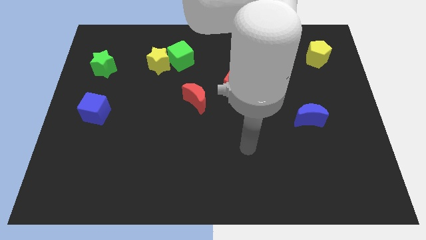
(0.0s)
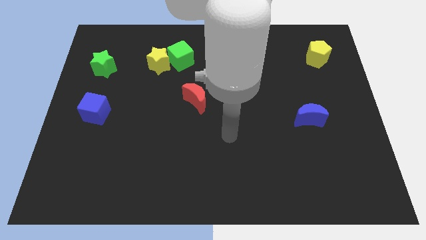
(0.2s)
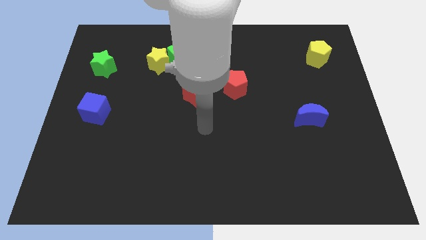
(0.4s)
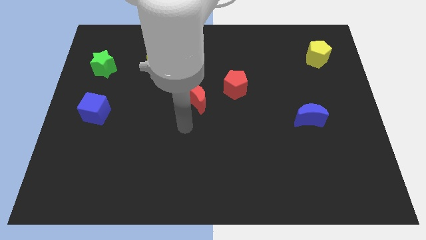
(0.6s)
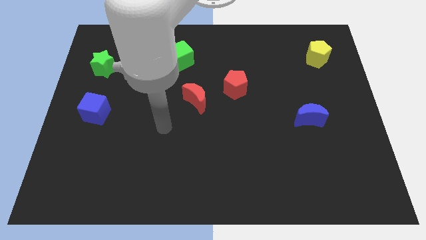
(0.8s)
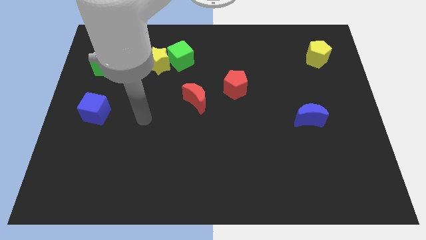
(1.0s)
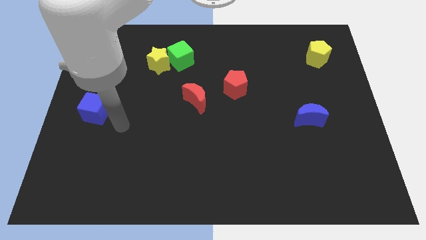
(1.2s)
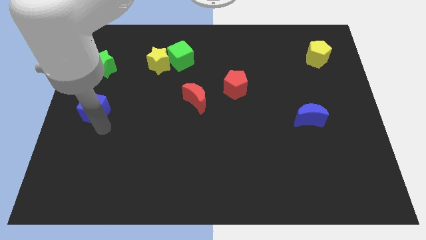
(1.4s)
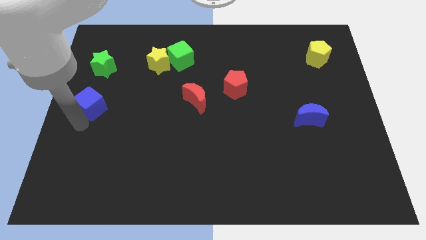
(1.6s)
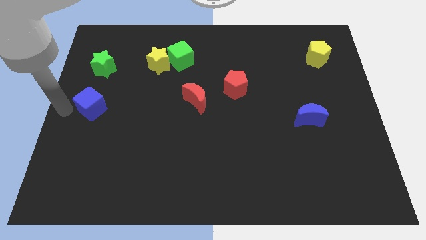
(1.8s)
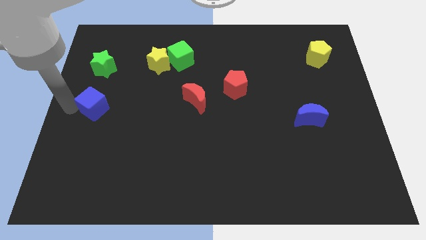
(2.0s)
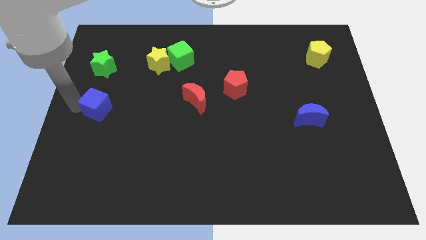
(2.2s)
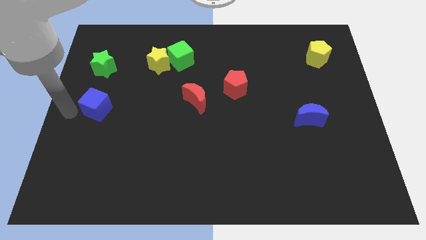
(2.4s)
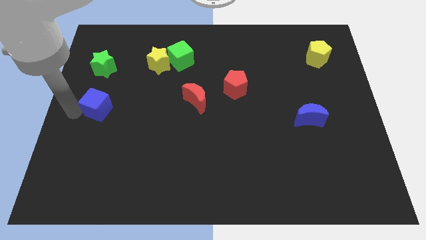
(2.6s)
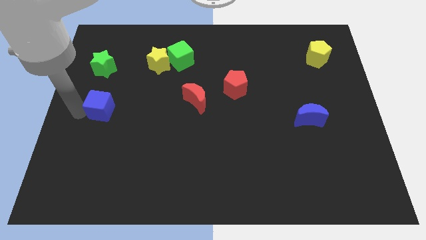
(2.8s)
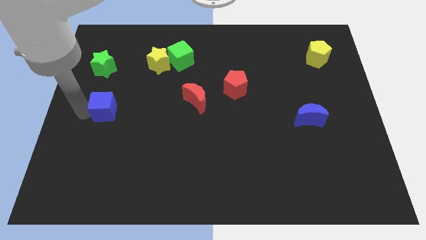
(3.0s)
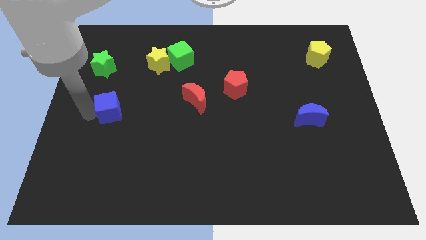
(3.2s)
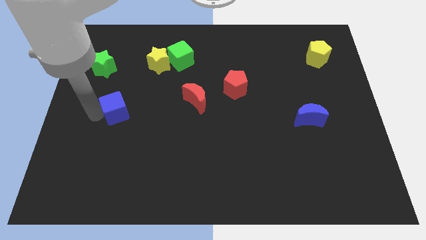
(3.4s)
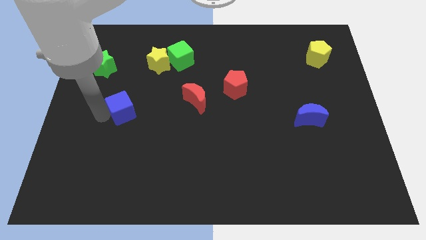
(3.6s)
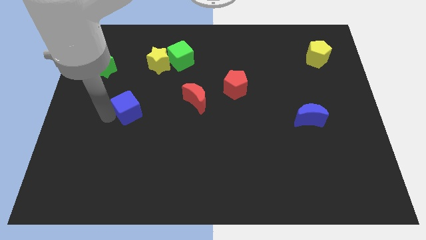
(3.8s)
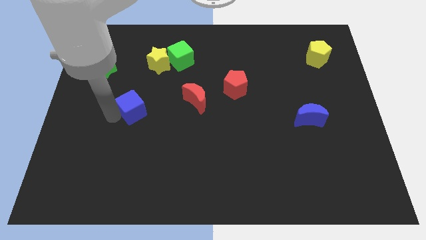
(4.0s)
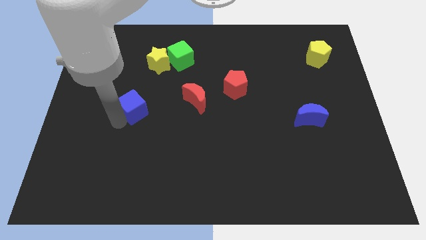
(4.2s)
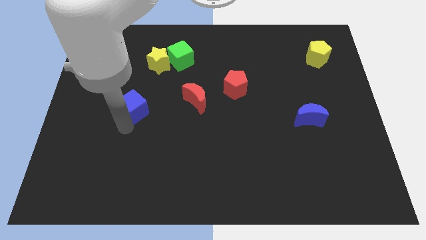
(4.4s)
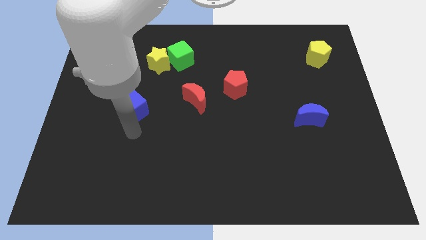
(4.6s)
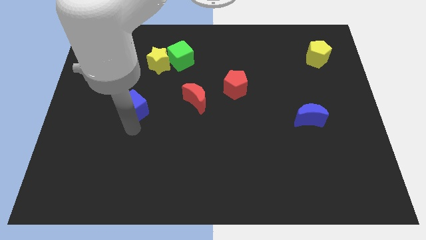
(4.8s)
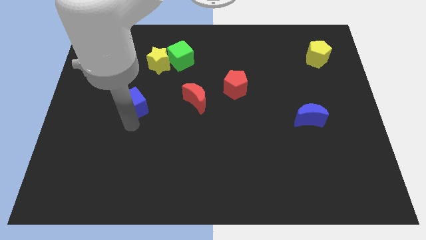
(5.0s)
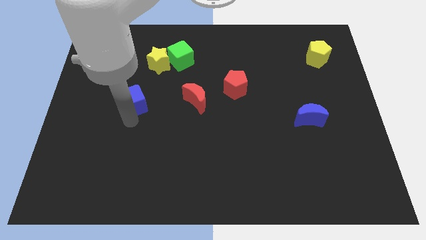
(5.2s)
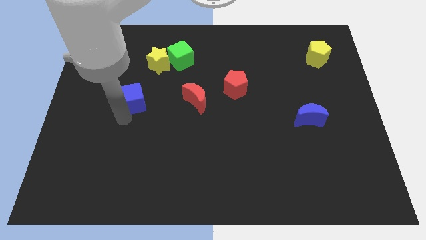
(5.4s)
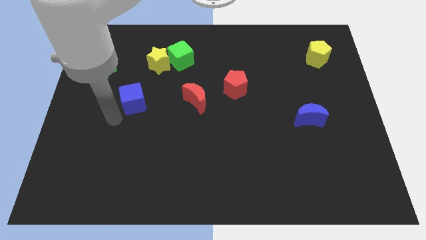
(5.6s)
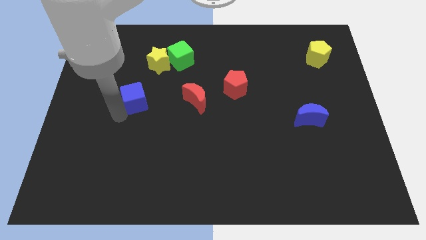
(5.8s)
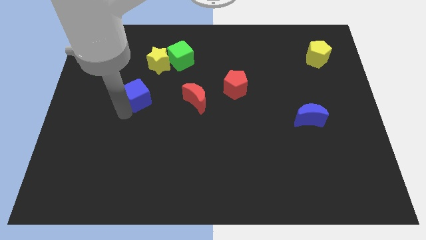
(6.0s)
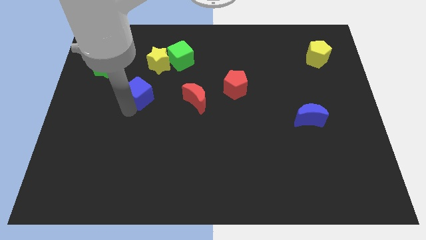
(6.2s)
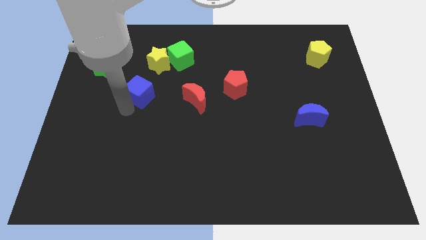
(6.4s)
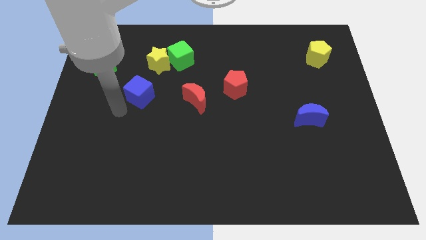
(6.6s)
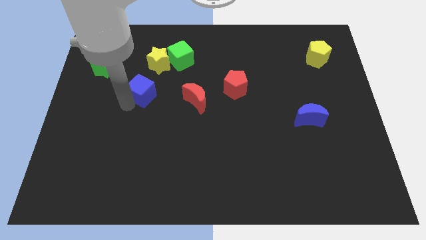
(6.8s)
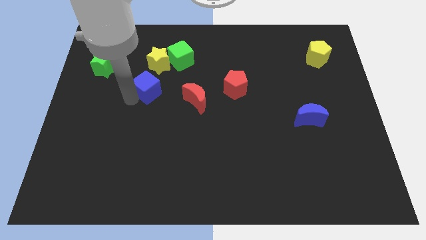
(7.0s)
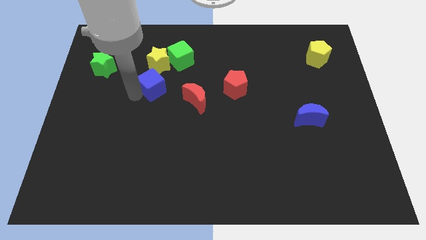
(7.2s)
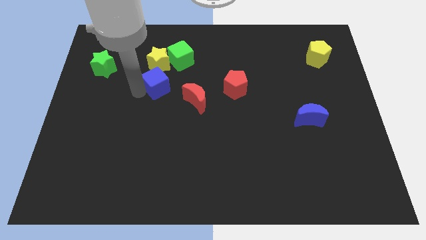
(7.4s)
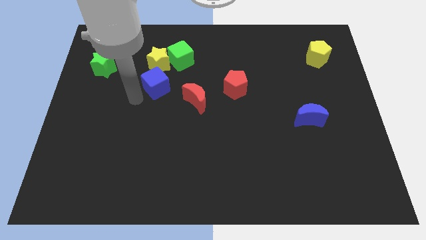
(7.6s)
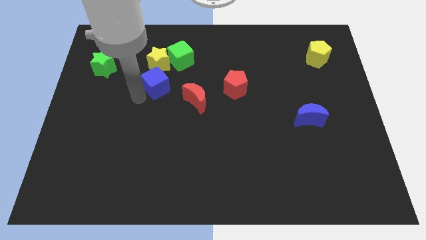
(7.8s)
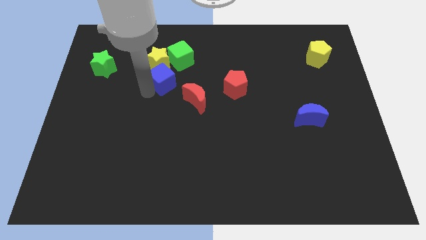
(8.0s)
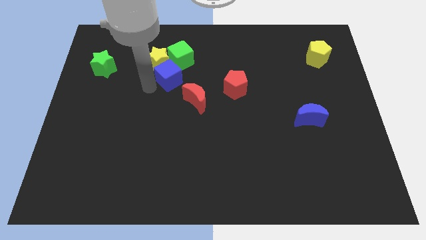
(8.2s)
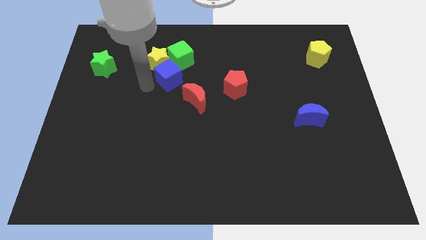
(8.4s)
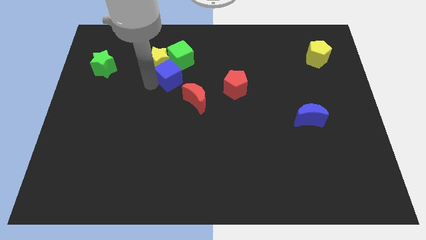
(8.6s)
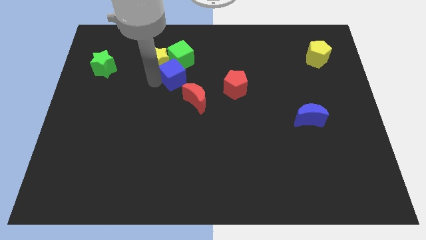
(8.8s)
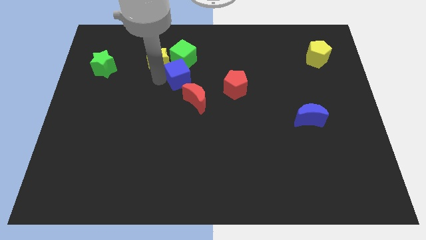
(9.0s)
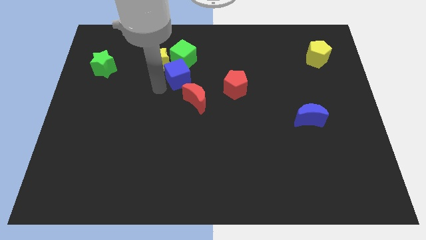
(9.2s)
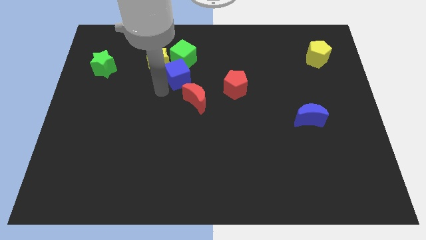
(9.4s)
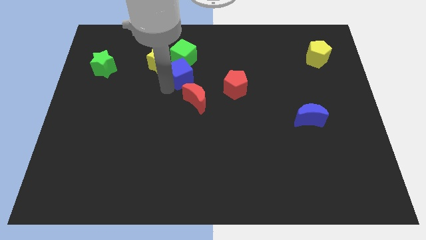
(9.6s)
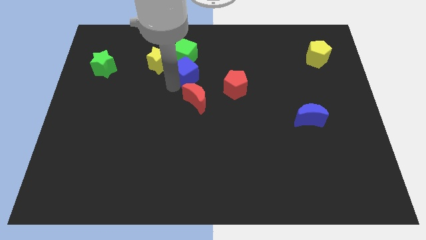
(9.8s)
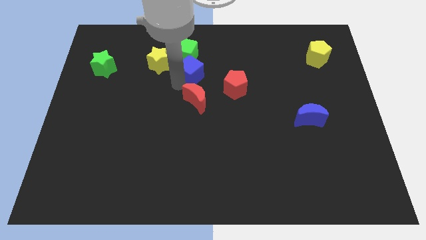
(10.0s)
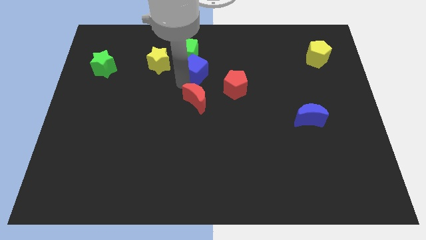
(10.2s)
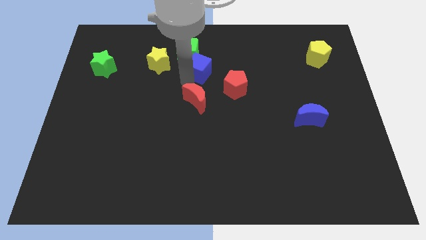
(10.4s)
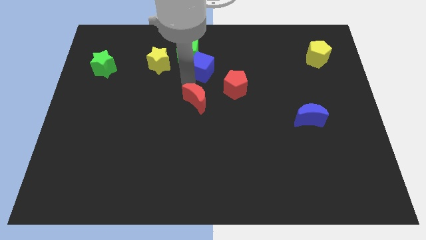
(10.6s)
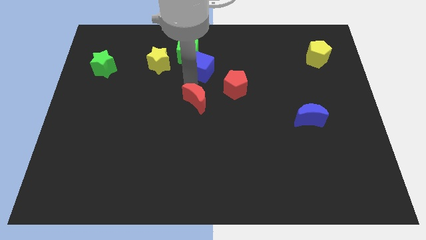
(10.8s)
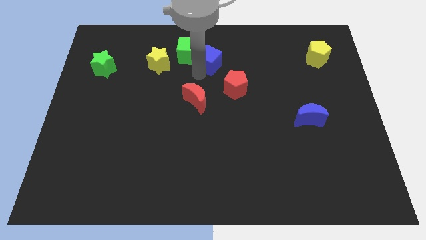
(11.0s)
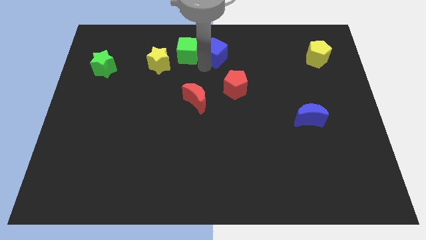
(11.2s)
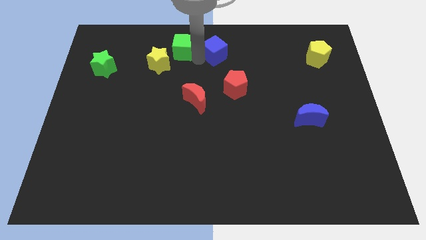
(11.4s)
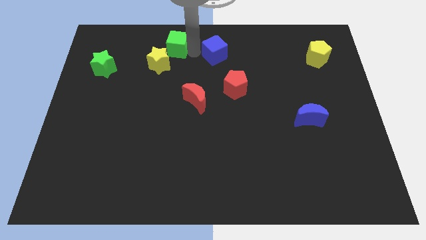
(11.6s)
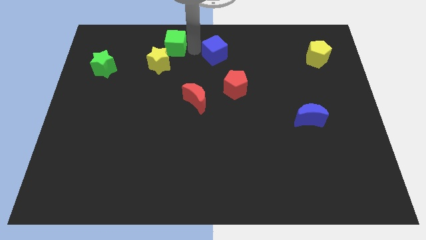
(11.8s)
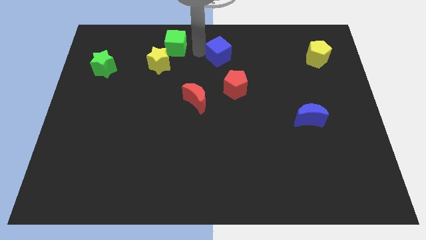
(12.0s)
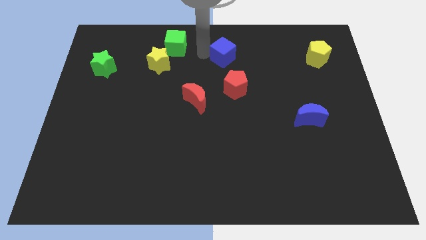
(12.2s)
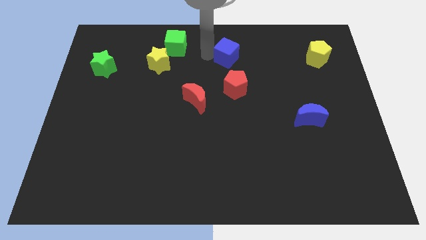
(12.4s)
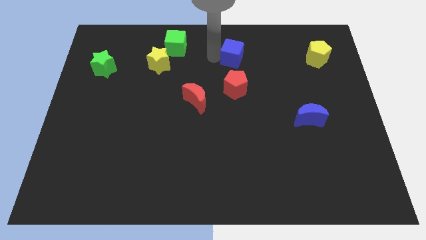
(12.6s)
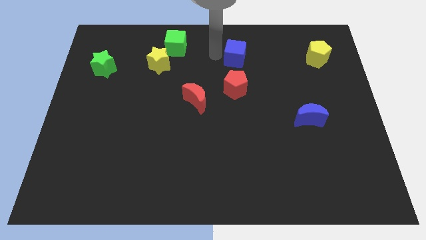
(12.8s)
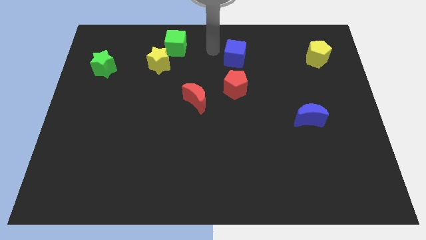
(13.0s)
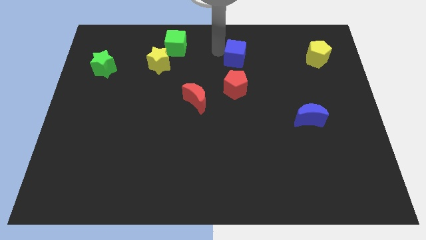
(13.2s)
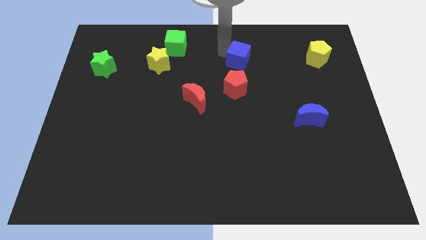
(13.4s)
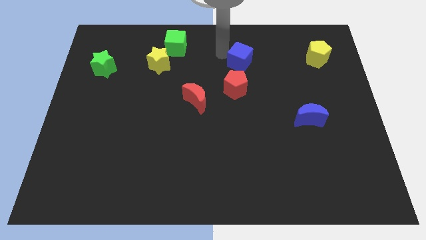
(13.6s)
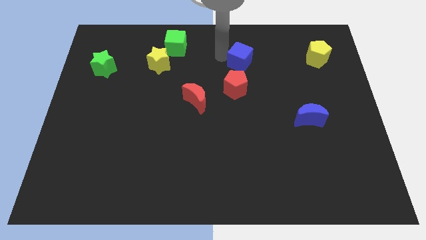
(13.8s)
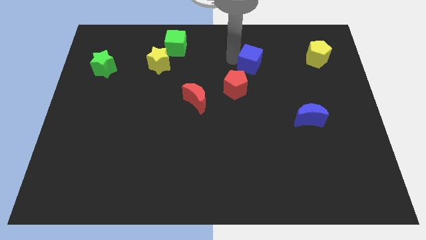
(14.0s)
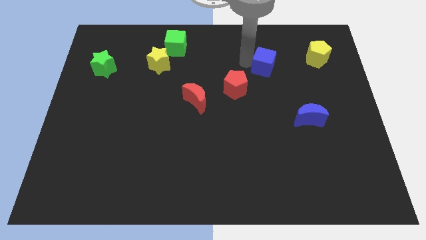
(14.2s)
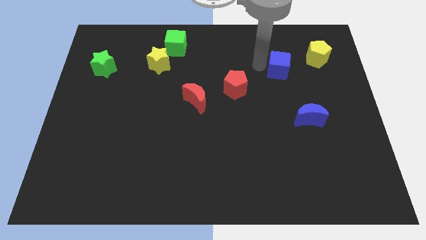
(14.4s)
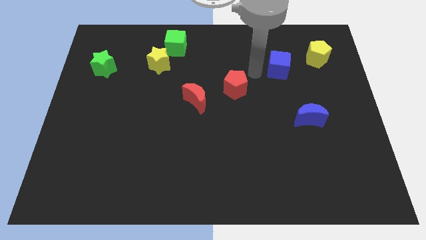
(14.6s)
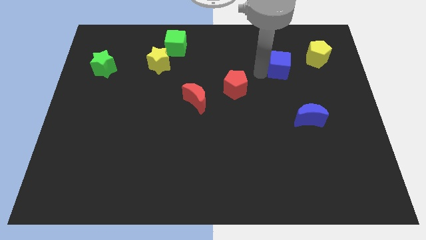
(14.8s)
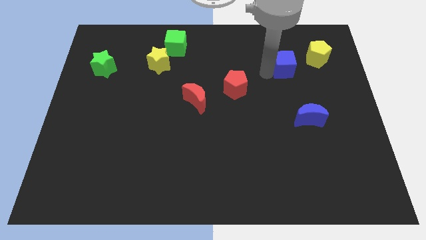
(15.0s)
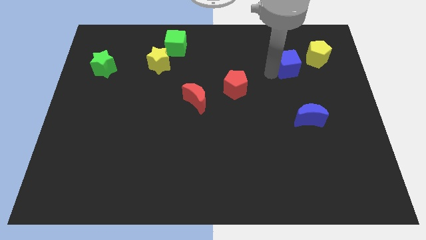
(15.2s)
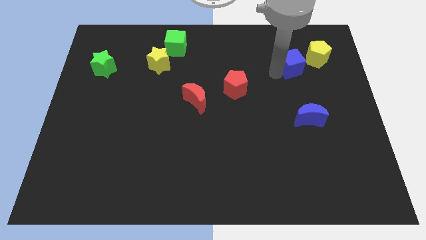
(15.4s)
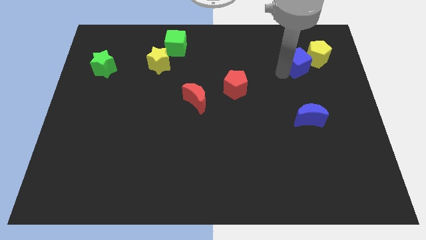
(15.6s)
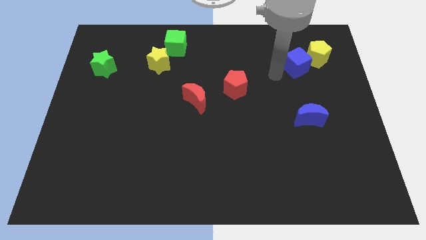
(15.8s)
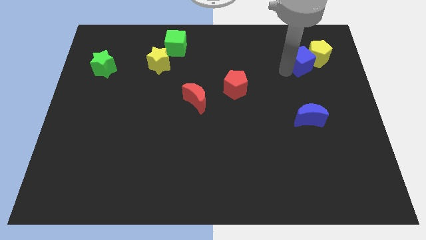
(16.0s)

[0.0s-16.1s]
put the blue cube next to the yellow pentagon
